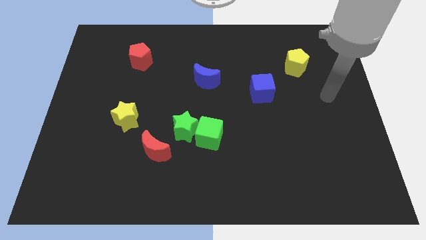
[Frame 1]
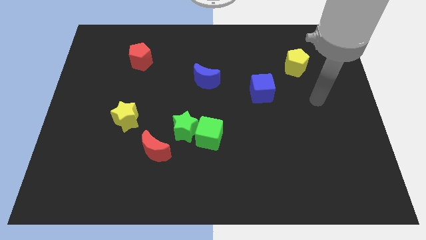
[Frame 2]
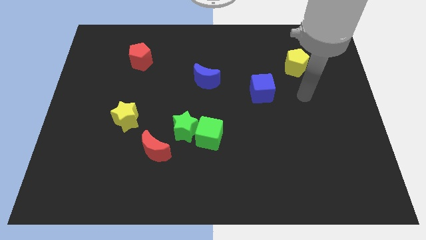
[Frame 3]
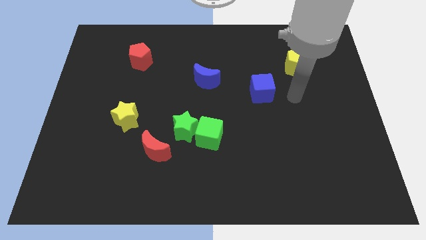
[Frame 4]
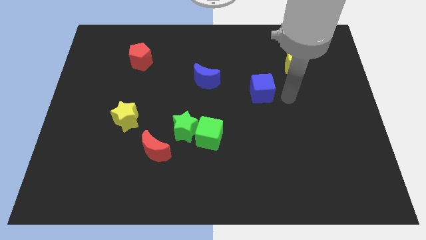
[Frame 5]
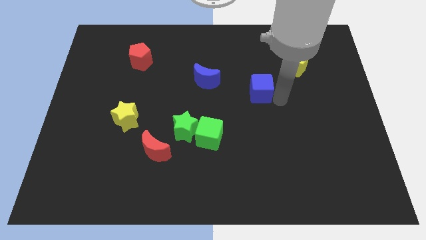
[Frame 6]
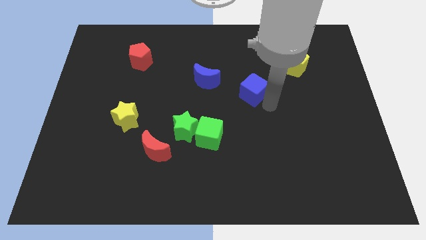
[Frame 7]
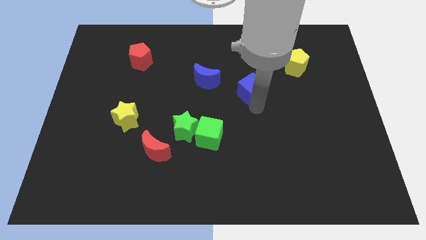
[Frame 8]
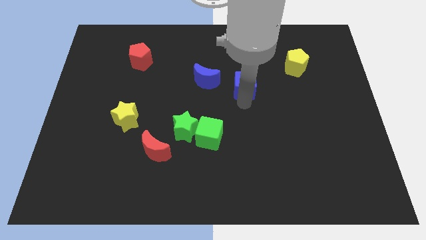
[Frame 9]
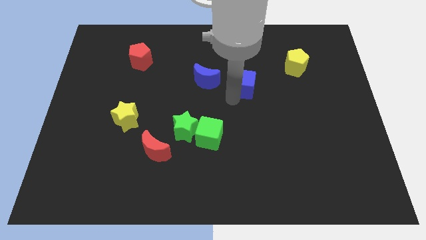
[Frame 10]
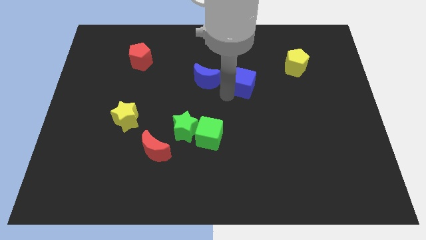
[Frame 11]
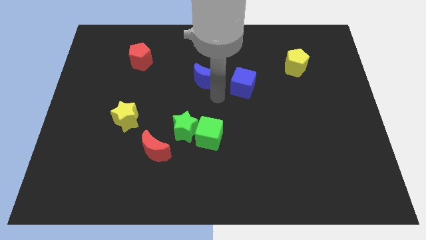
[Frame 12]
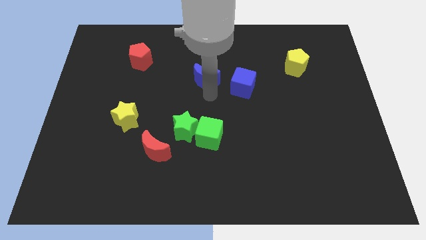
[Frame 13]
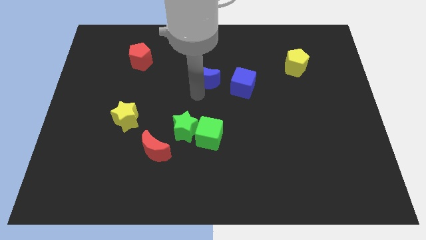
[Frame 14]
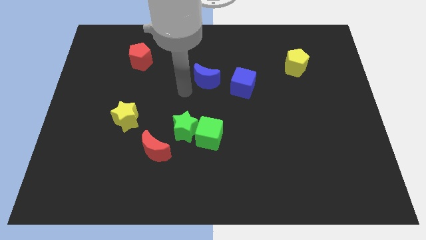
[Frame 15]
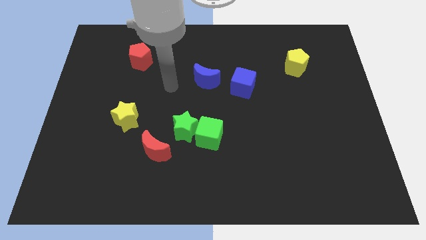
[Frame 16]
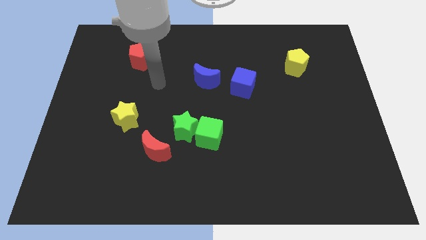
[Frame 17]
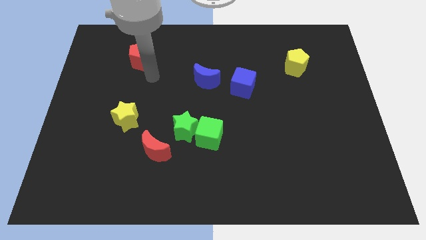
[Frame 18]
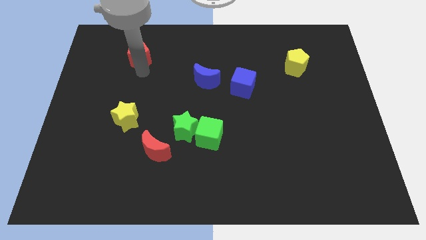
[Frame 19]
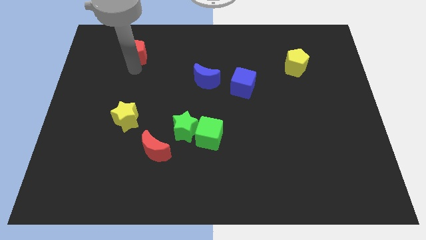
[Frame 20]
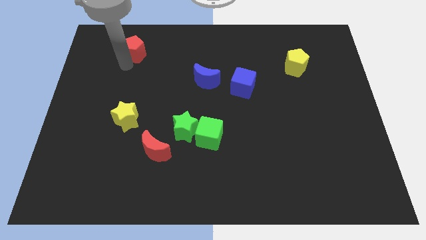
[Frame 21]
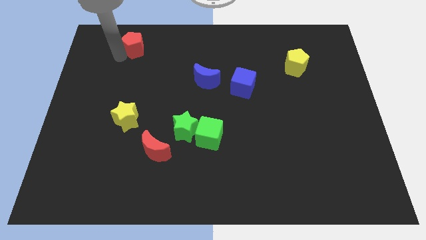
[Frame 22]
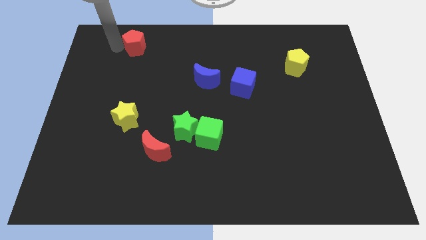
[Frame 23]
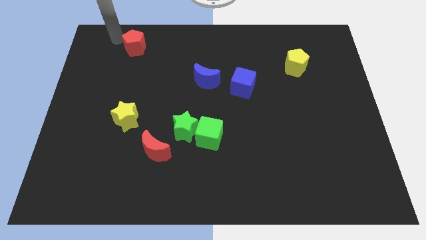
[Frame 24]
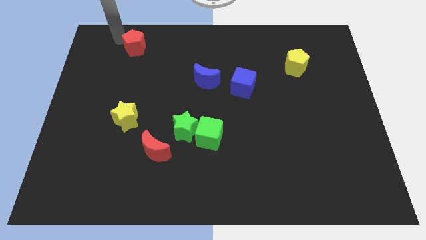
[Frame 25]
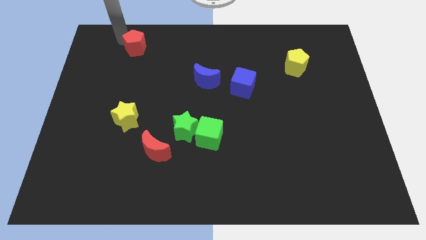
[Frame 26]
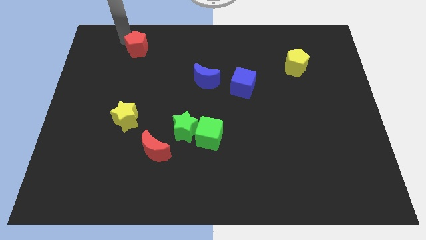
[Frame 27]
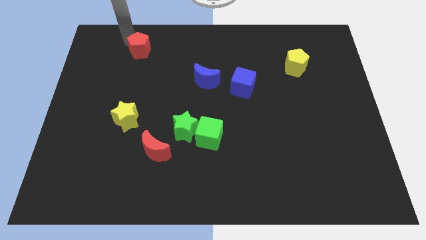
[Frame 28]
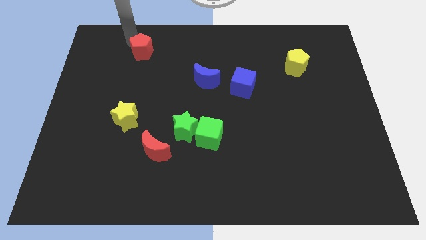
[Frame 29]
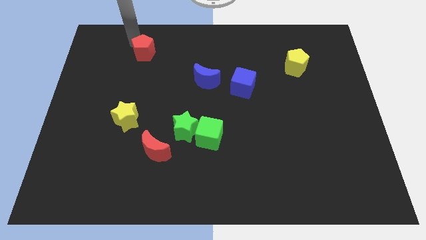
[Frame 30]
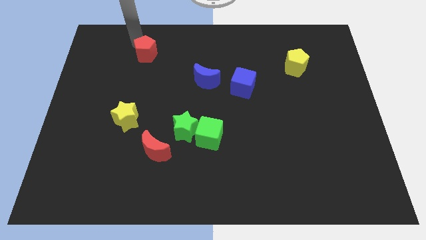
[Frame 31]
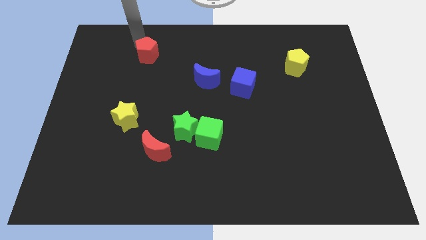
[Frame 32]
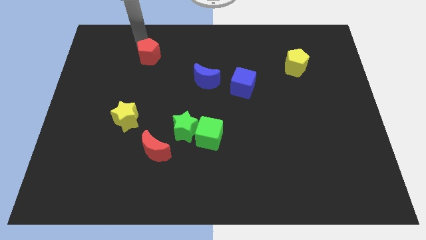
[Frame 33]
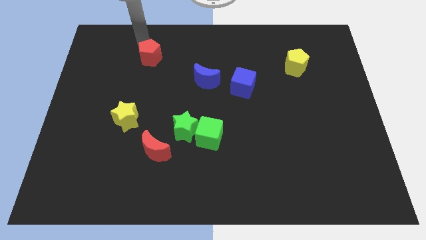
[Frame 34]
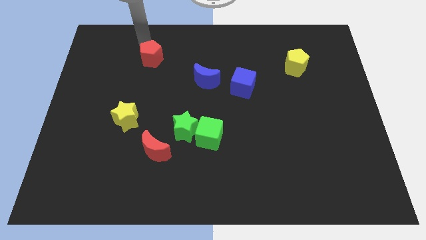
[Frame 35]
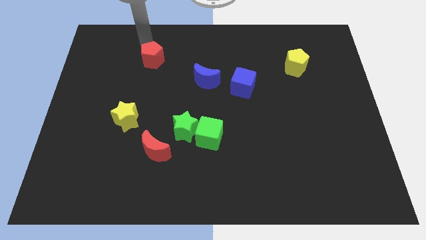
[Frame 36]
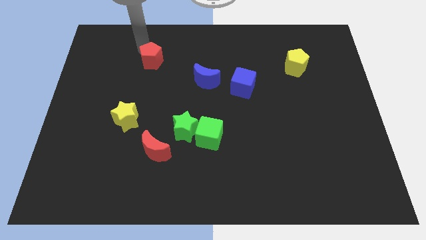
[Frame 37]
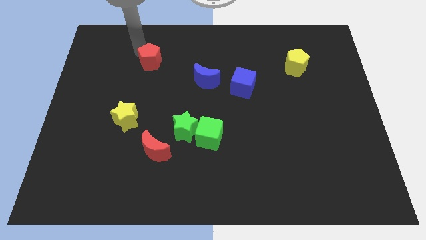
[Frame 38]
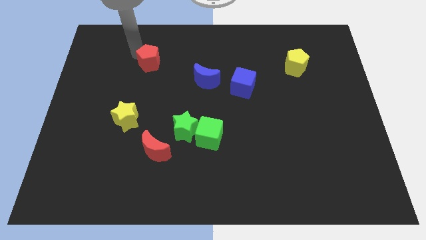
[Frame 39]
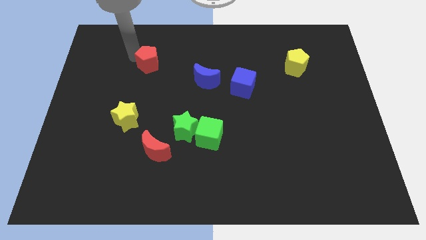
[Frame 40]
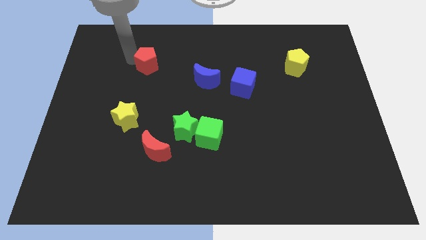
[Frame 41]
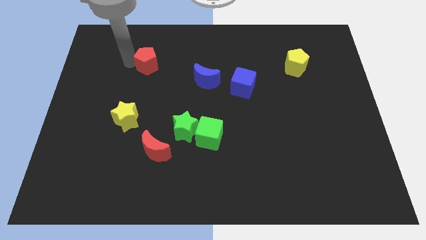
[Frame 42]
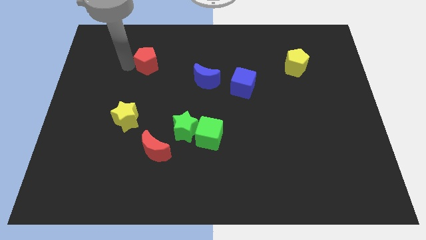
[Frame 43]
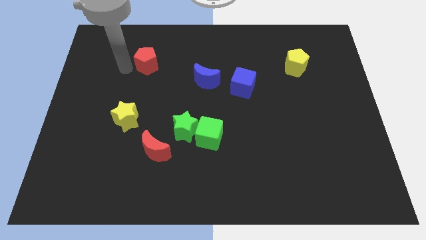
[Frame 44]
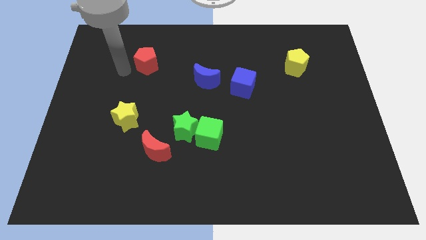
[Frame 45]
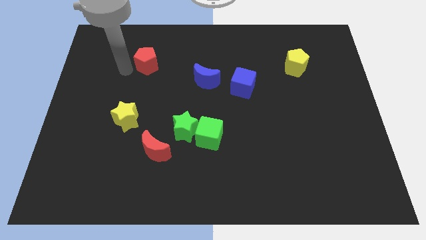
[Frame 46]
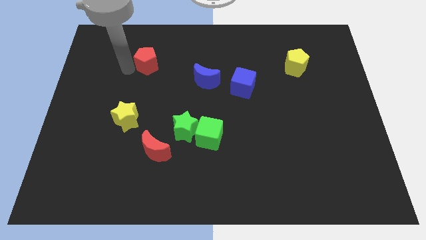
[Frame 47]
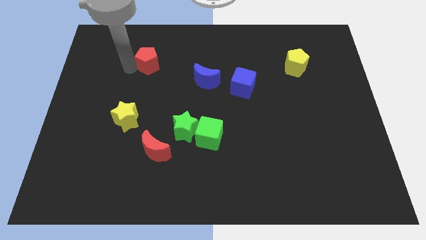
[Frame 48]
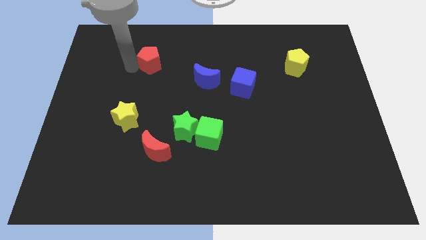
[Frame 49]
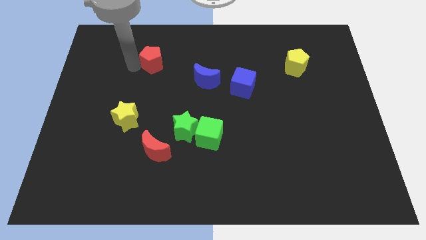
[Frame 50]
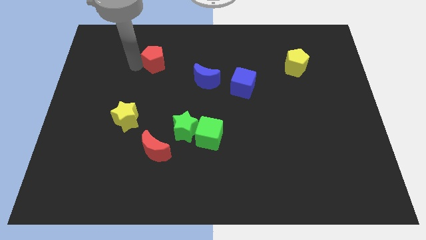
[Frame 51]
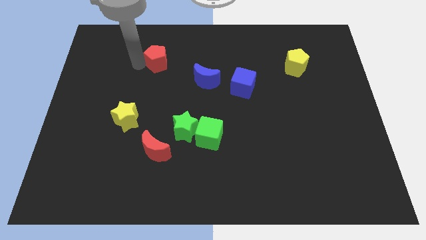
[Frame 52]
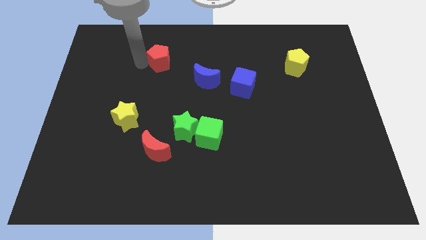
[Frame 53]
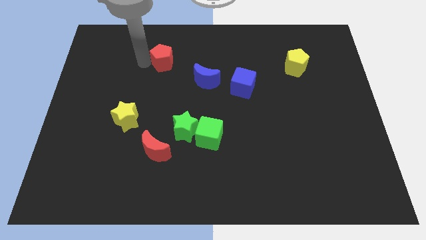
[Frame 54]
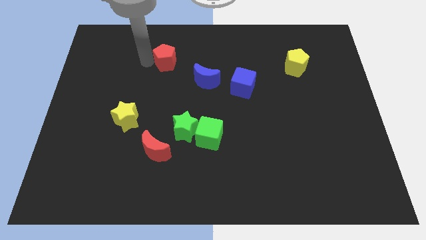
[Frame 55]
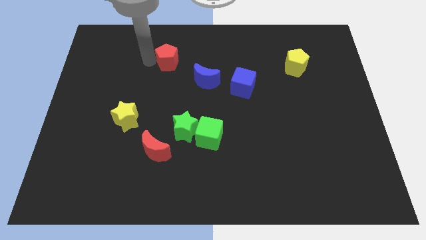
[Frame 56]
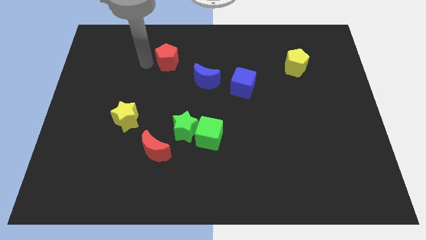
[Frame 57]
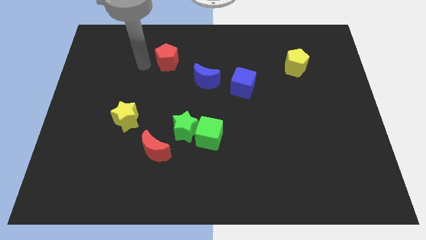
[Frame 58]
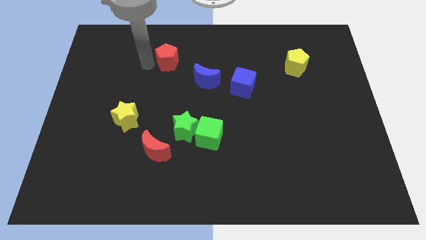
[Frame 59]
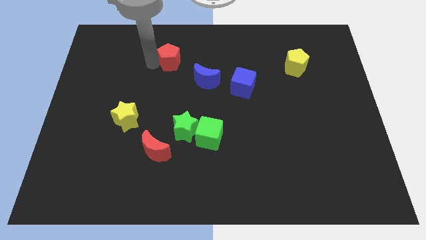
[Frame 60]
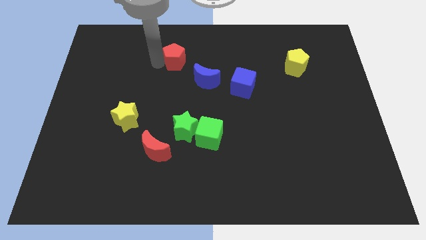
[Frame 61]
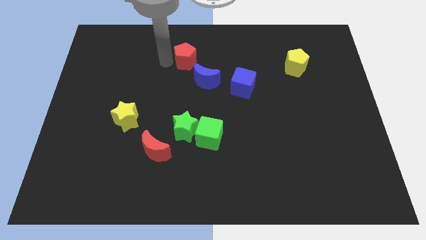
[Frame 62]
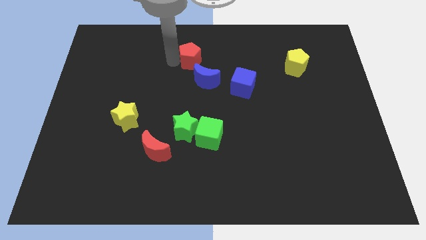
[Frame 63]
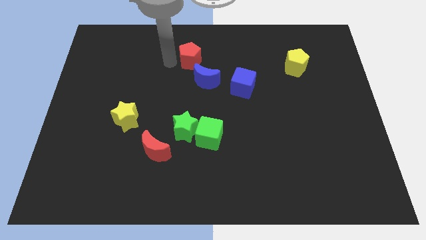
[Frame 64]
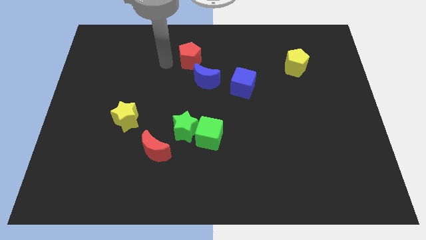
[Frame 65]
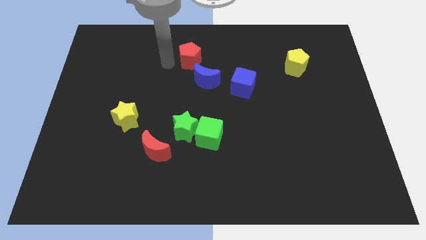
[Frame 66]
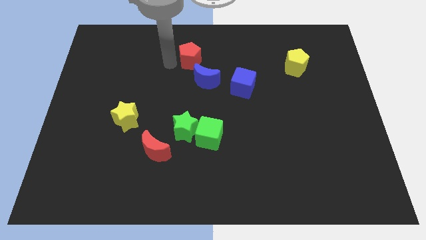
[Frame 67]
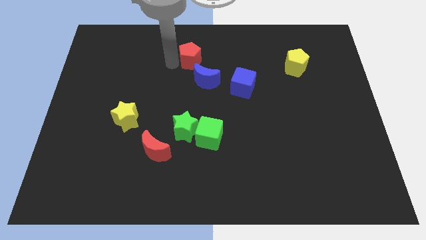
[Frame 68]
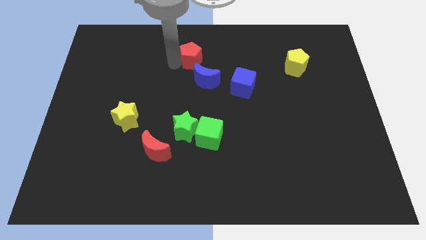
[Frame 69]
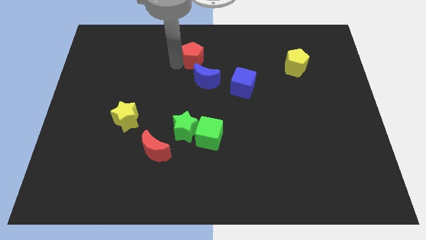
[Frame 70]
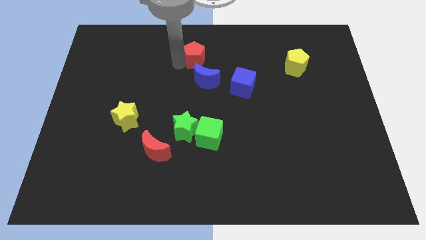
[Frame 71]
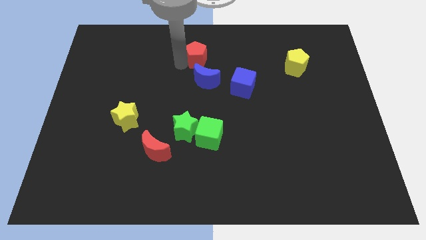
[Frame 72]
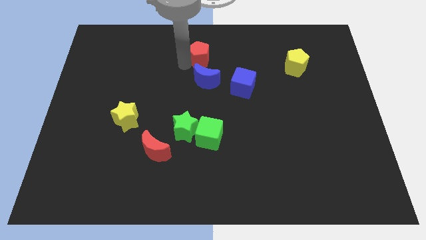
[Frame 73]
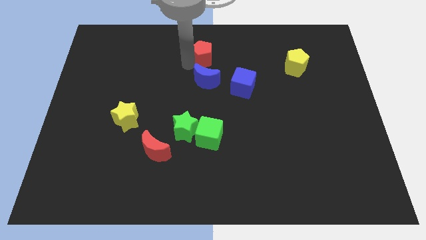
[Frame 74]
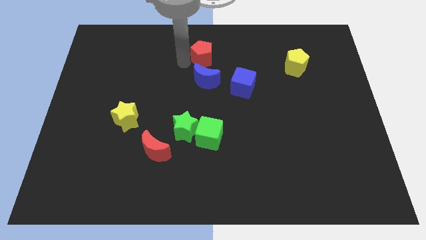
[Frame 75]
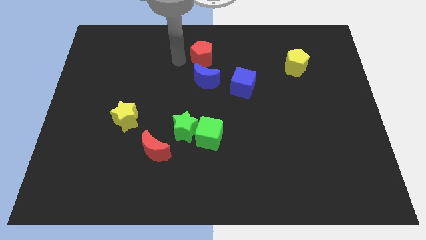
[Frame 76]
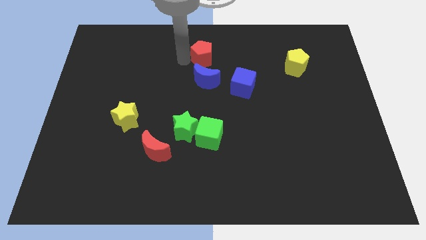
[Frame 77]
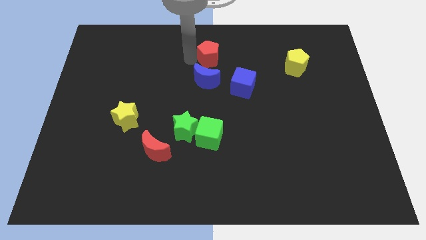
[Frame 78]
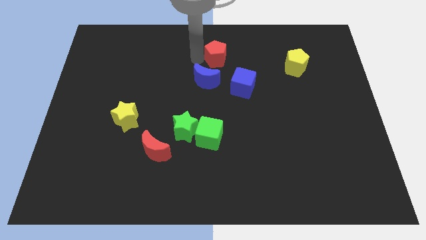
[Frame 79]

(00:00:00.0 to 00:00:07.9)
slide the red pentagon right
